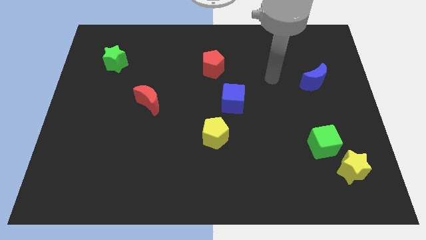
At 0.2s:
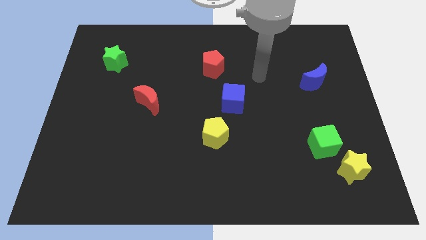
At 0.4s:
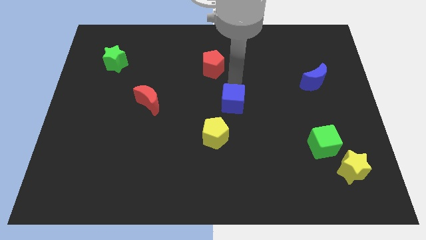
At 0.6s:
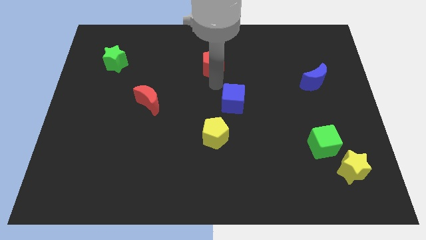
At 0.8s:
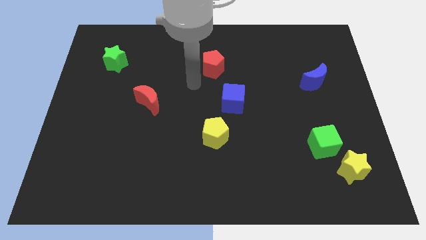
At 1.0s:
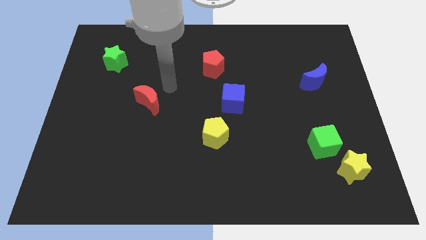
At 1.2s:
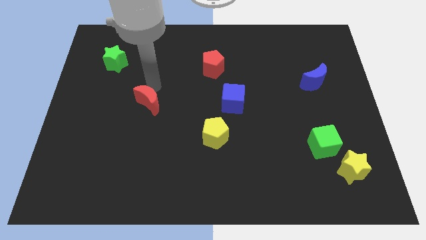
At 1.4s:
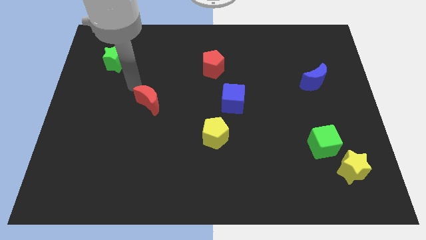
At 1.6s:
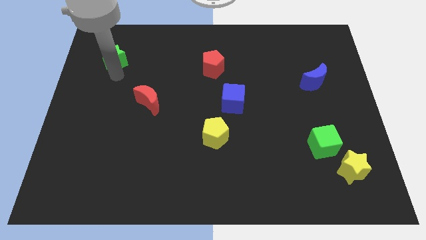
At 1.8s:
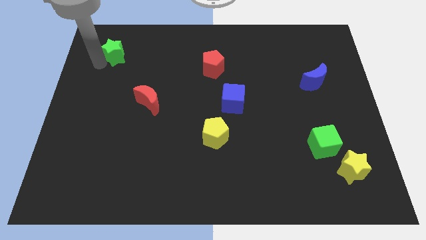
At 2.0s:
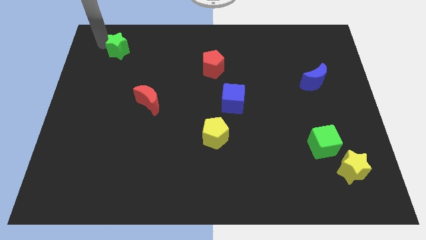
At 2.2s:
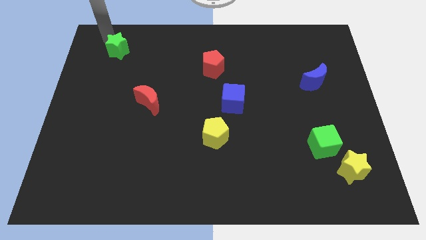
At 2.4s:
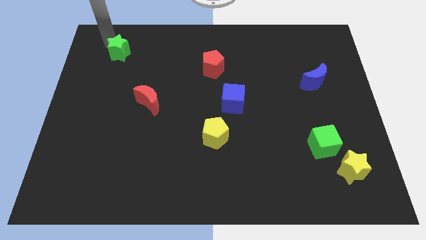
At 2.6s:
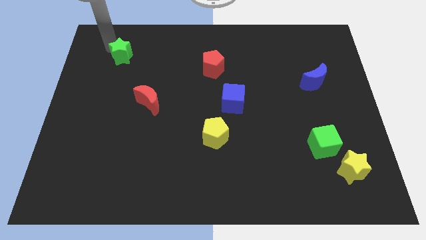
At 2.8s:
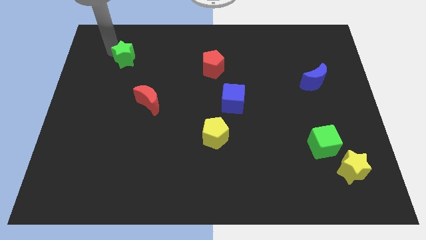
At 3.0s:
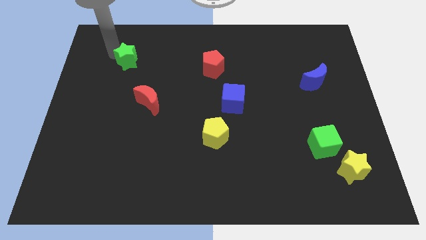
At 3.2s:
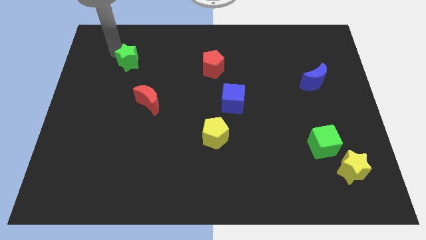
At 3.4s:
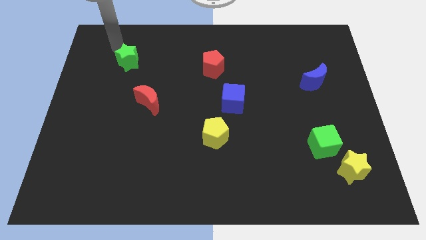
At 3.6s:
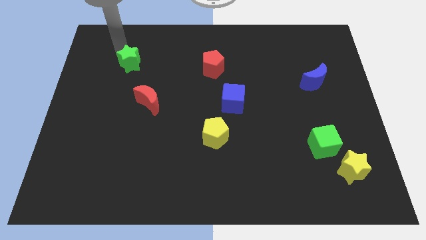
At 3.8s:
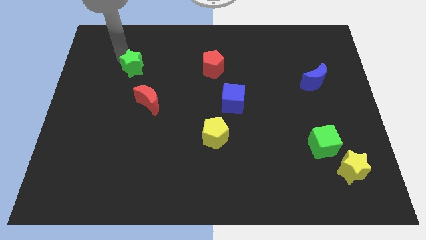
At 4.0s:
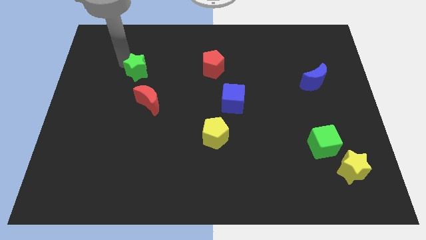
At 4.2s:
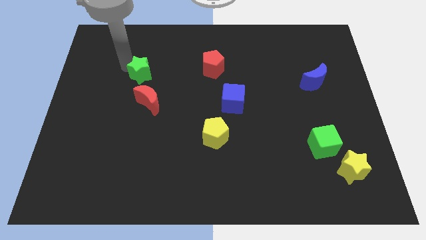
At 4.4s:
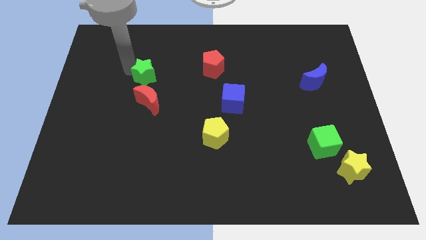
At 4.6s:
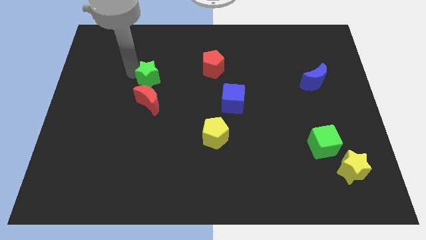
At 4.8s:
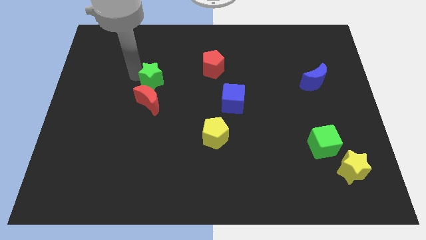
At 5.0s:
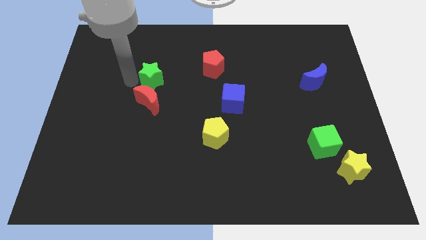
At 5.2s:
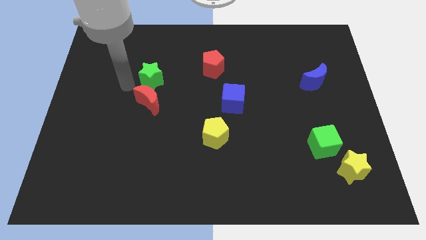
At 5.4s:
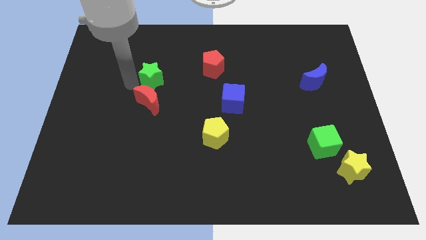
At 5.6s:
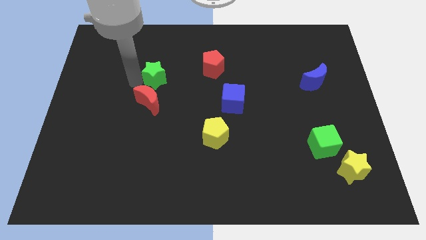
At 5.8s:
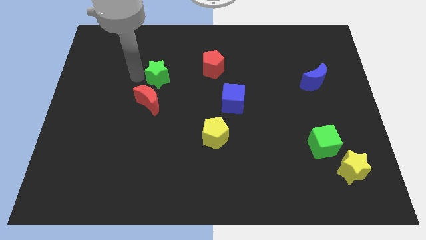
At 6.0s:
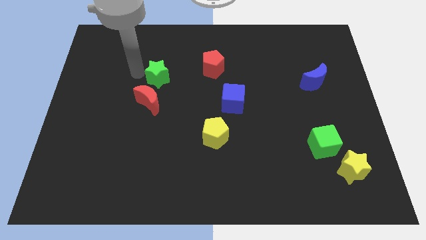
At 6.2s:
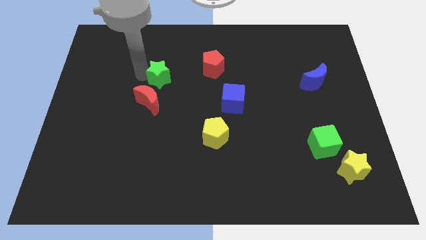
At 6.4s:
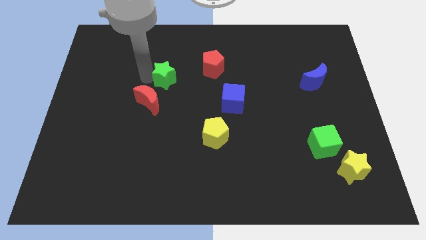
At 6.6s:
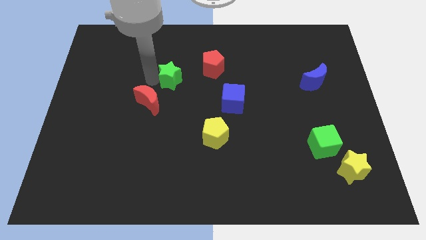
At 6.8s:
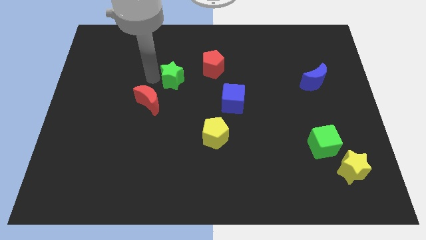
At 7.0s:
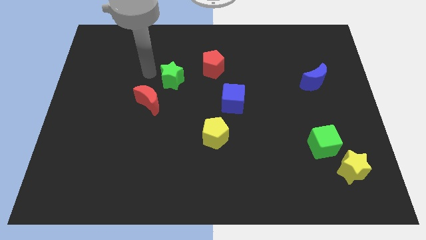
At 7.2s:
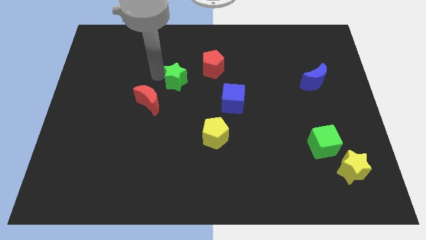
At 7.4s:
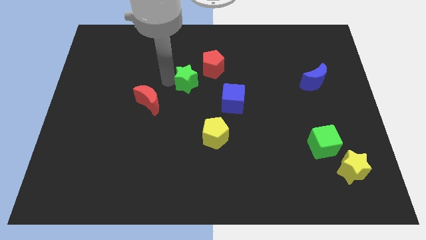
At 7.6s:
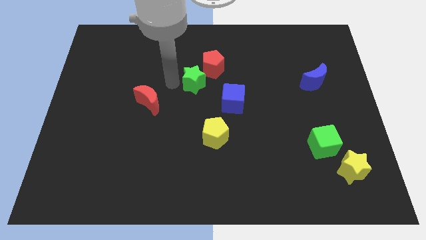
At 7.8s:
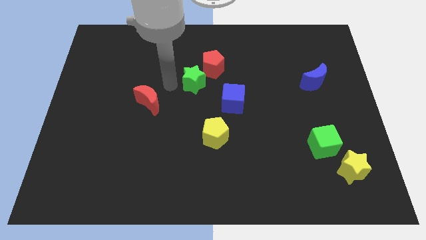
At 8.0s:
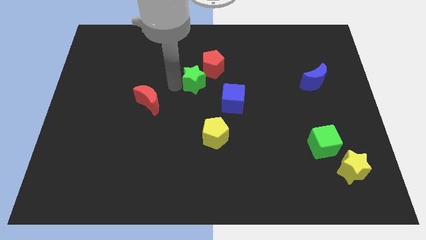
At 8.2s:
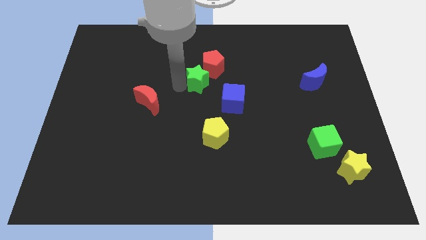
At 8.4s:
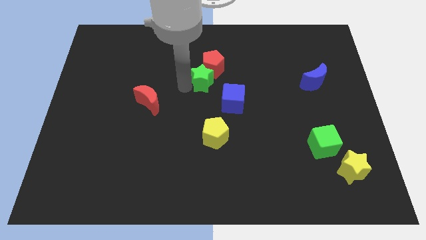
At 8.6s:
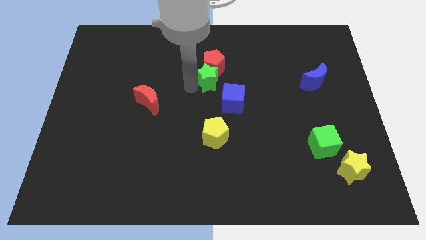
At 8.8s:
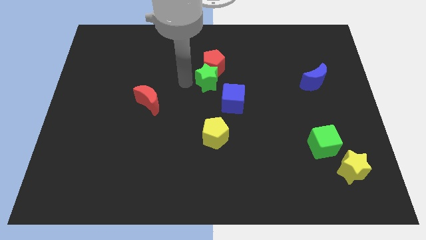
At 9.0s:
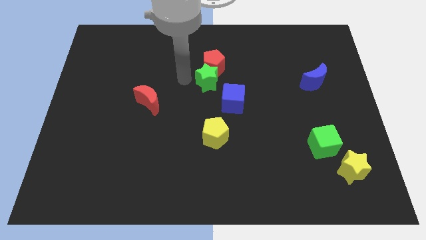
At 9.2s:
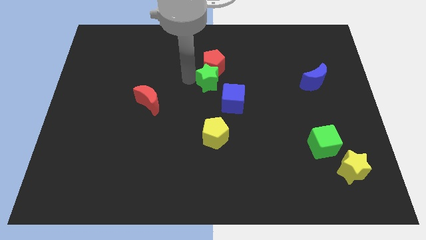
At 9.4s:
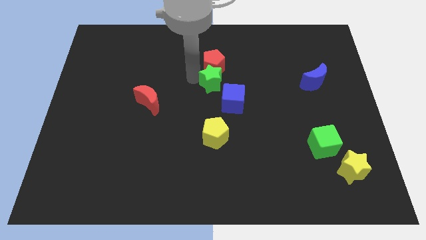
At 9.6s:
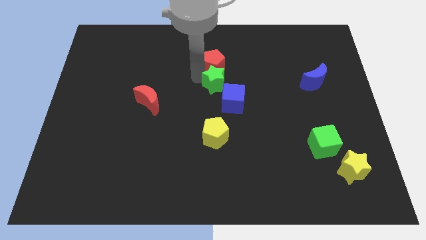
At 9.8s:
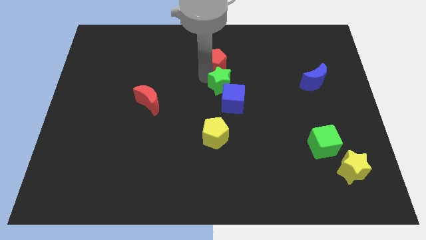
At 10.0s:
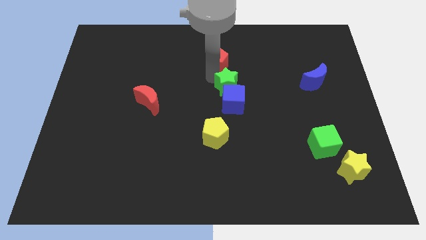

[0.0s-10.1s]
push the green star diagonally up and to the right of the blue cube

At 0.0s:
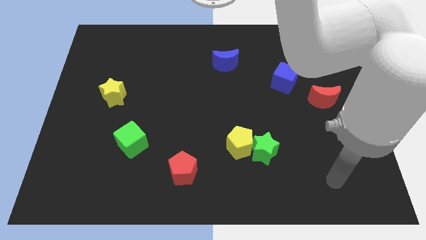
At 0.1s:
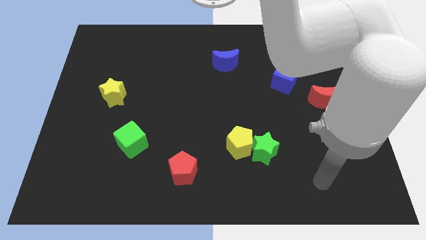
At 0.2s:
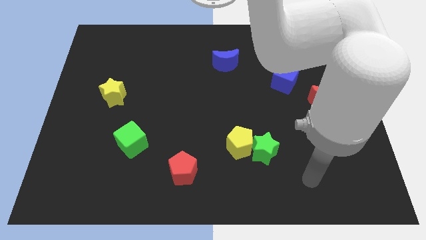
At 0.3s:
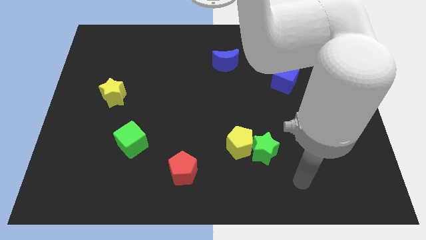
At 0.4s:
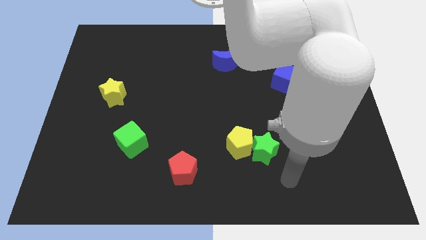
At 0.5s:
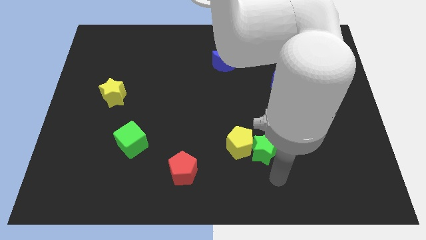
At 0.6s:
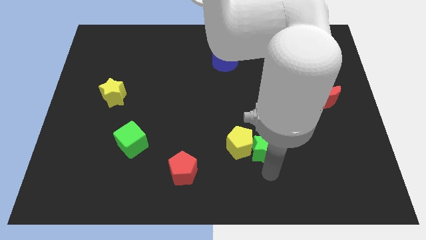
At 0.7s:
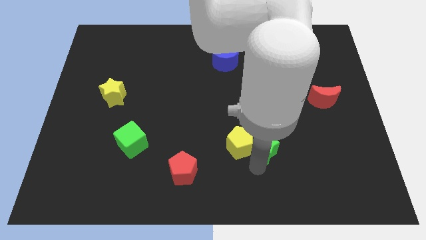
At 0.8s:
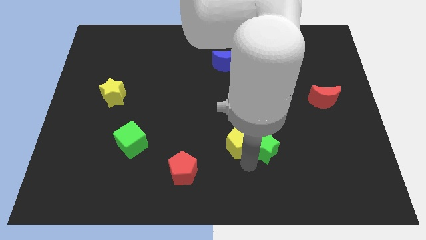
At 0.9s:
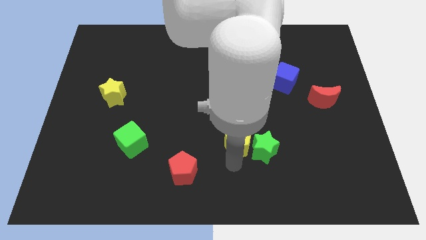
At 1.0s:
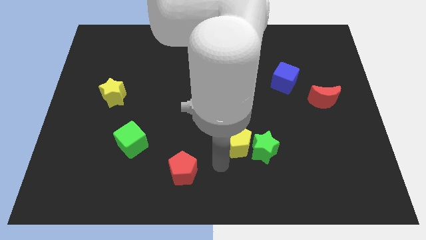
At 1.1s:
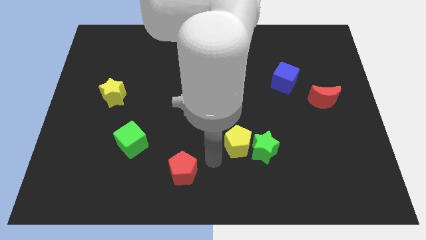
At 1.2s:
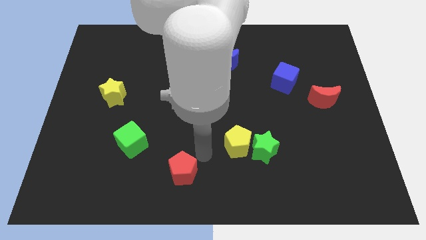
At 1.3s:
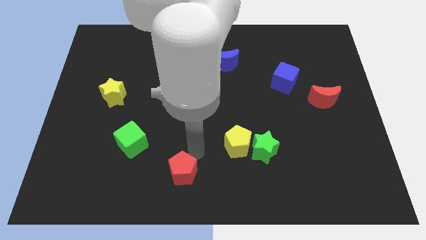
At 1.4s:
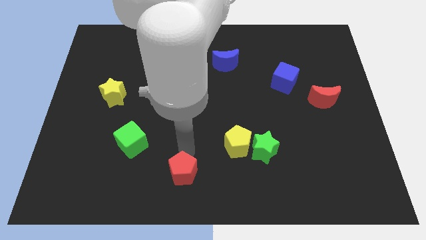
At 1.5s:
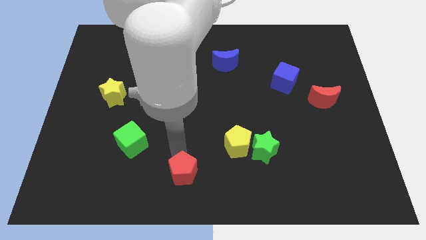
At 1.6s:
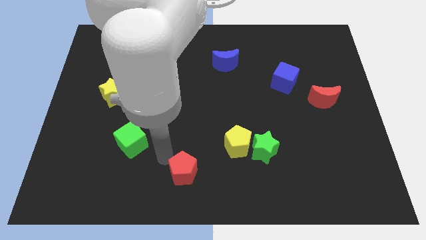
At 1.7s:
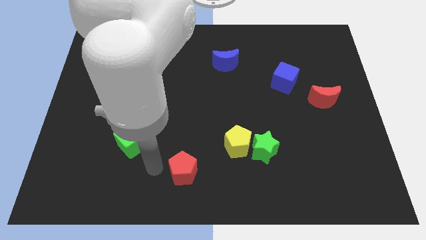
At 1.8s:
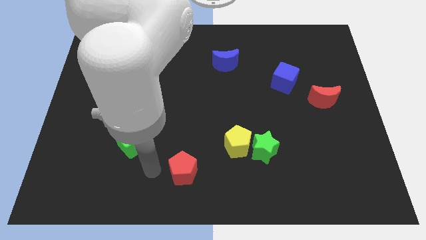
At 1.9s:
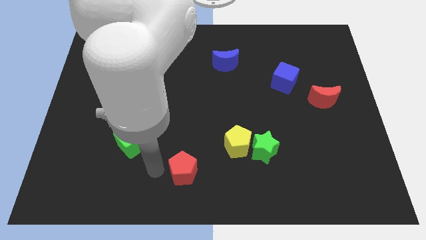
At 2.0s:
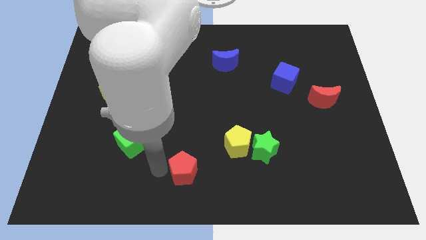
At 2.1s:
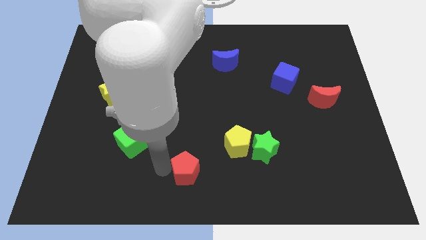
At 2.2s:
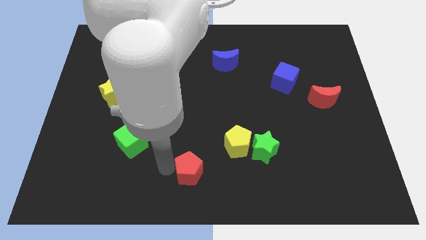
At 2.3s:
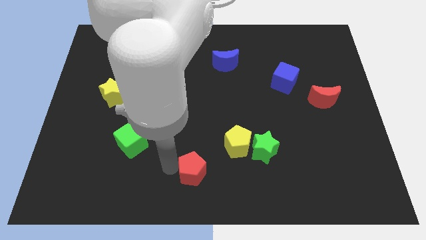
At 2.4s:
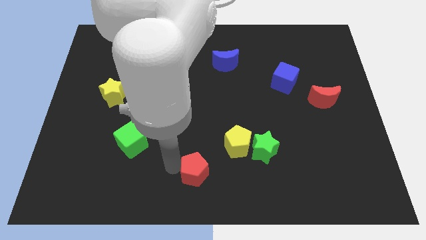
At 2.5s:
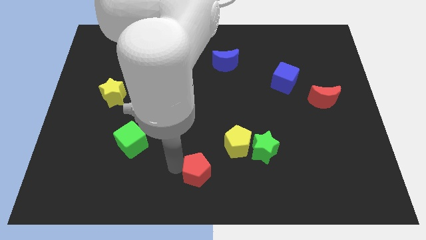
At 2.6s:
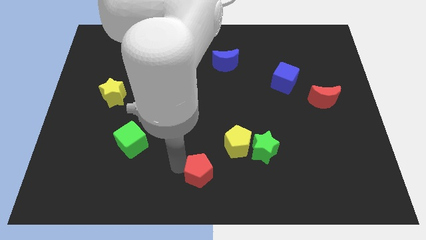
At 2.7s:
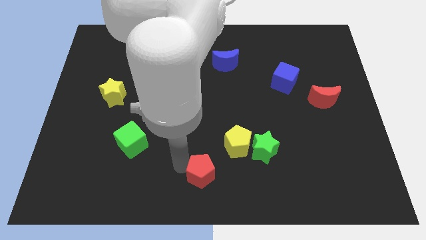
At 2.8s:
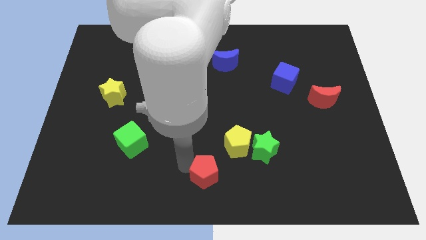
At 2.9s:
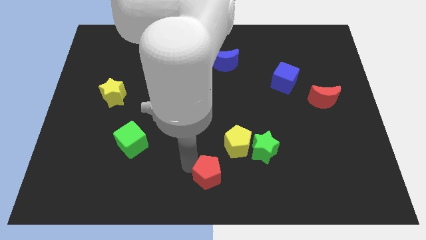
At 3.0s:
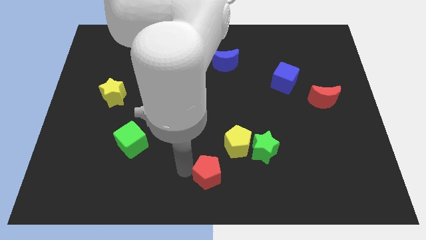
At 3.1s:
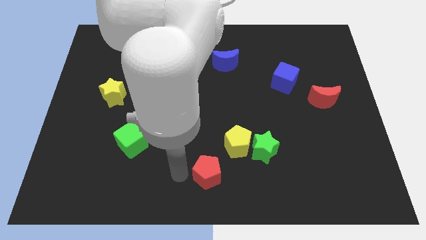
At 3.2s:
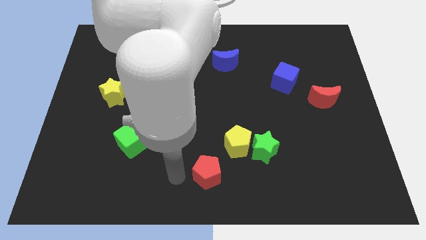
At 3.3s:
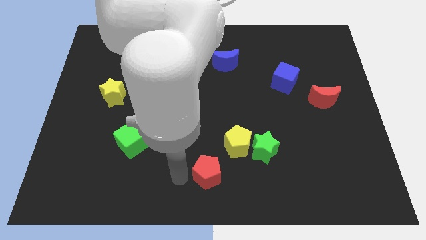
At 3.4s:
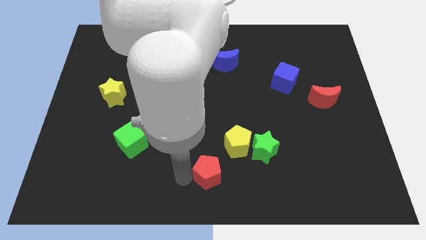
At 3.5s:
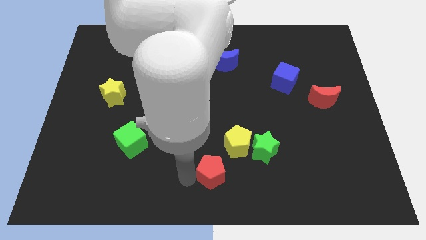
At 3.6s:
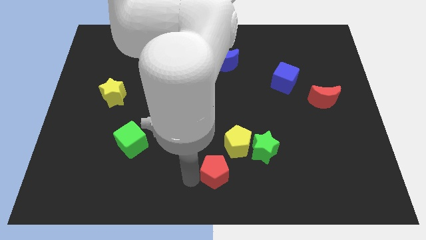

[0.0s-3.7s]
push the red pentagon to the bottom left of the green star
